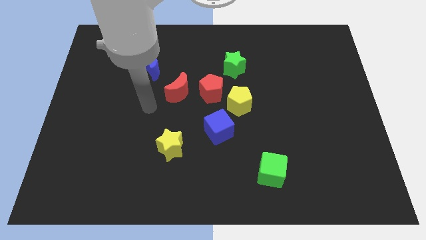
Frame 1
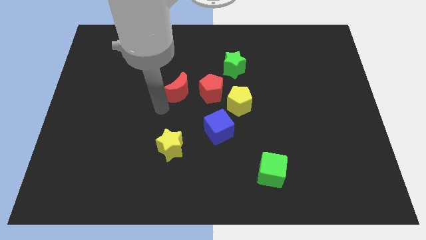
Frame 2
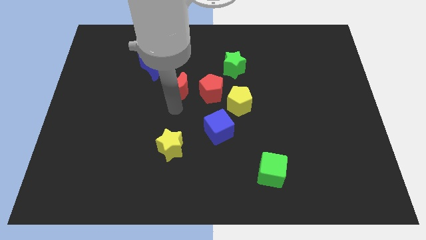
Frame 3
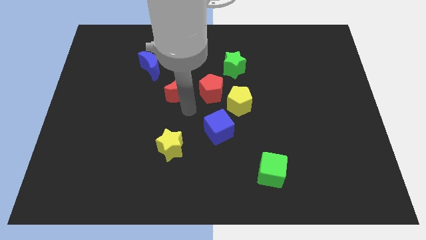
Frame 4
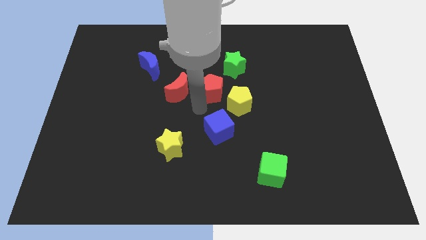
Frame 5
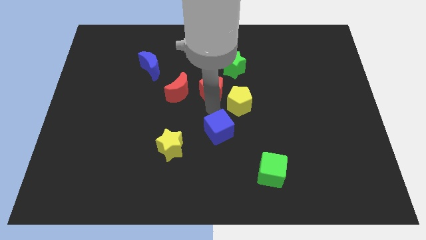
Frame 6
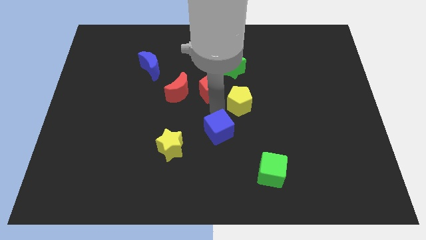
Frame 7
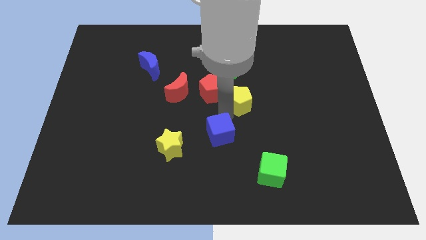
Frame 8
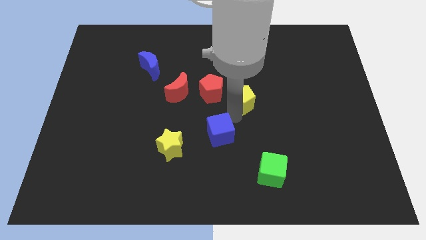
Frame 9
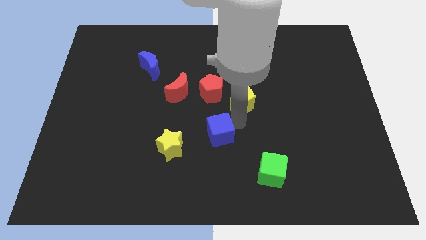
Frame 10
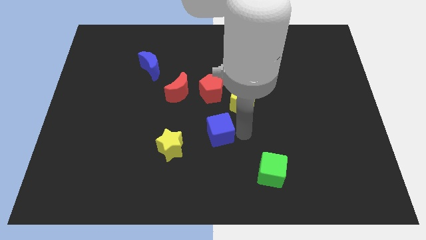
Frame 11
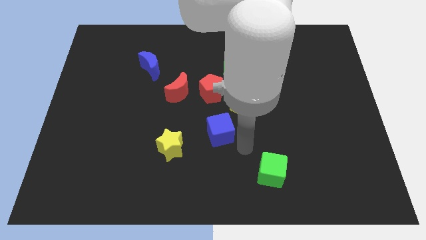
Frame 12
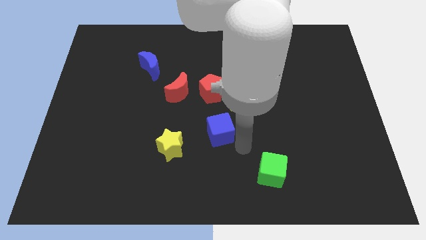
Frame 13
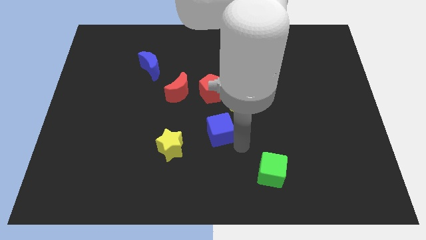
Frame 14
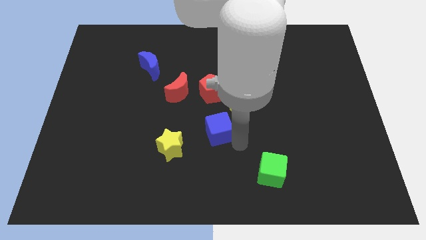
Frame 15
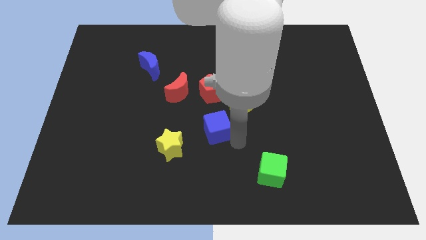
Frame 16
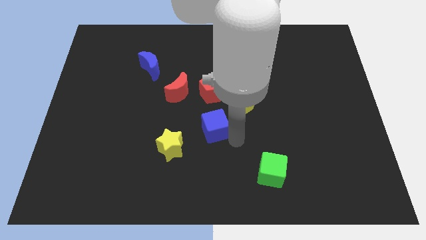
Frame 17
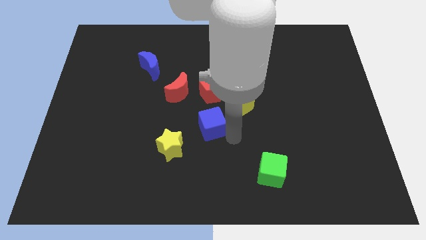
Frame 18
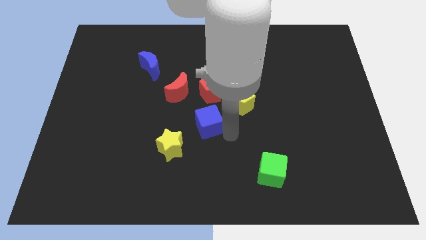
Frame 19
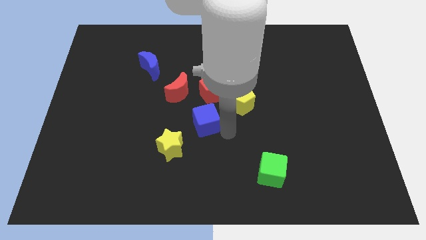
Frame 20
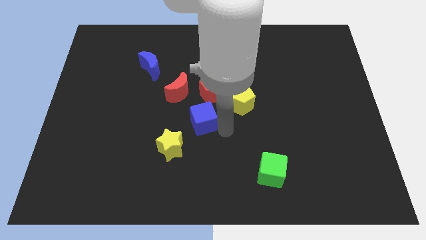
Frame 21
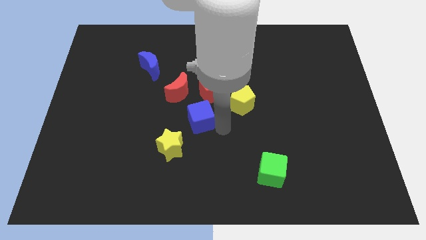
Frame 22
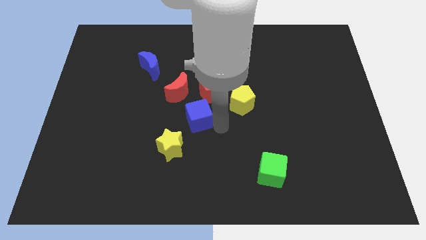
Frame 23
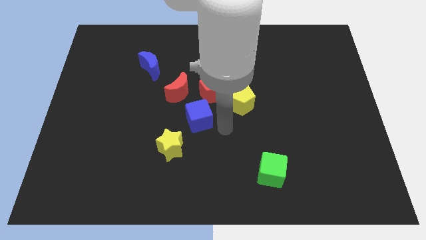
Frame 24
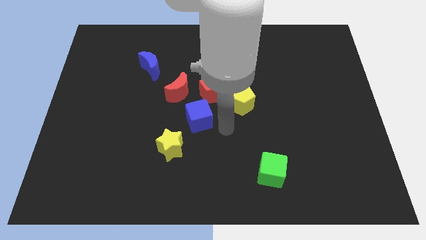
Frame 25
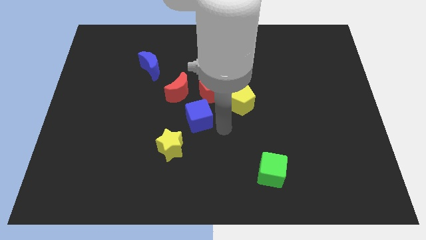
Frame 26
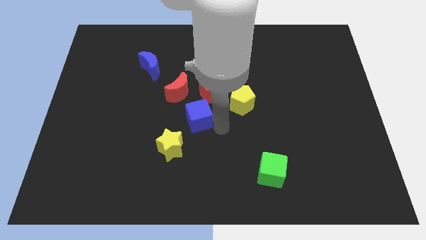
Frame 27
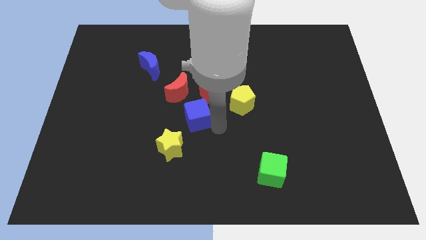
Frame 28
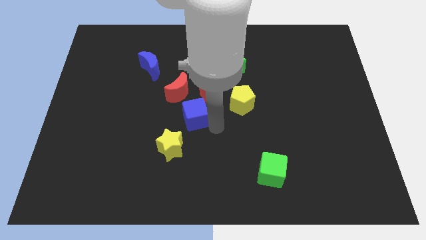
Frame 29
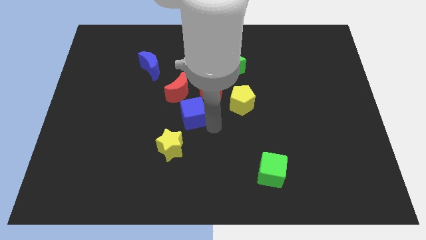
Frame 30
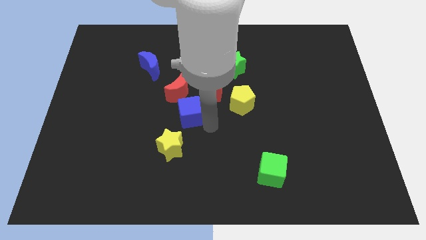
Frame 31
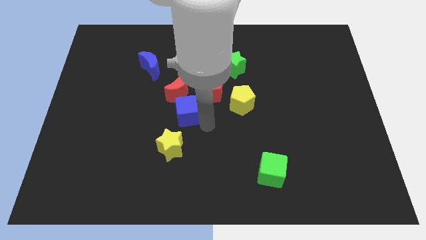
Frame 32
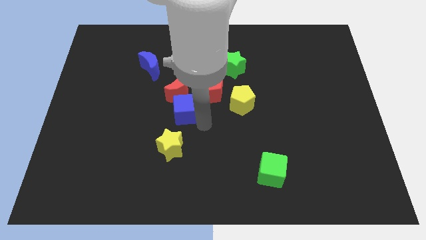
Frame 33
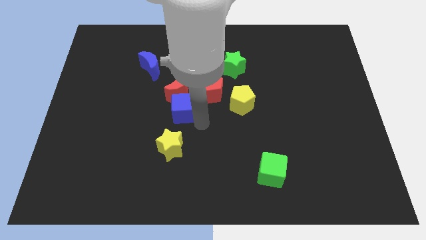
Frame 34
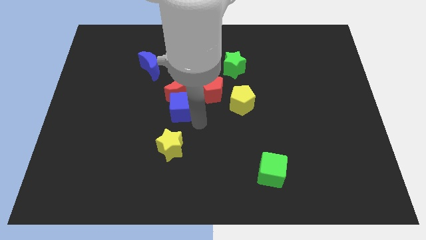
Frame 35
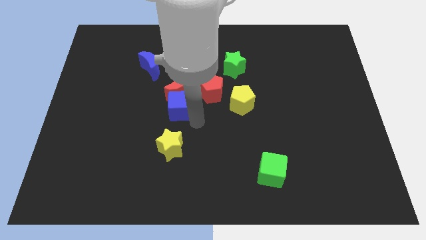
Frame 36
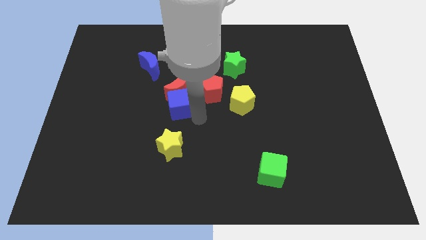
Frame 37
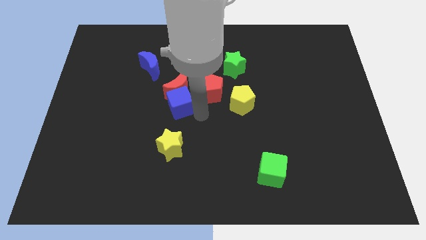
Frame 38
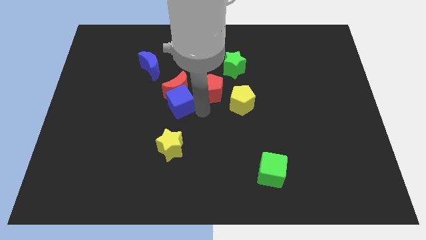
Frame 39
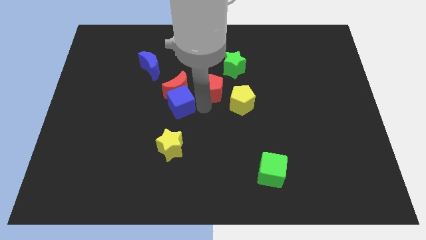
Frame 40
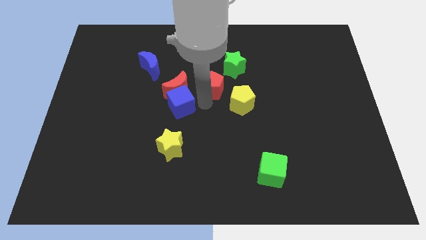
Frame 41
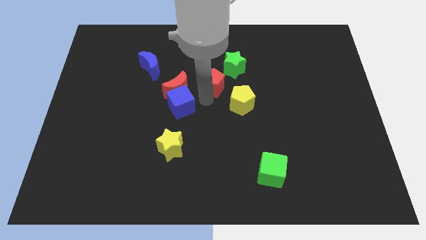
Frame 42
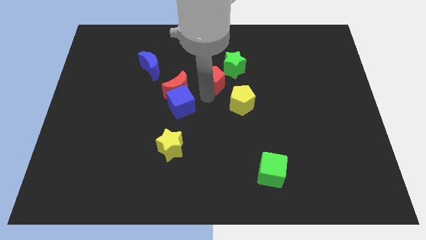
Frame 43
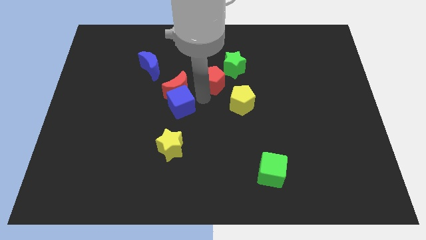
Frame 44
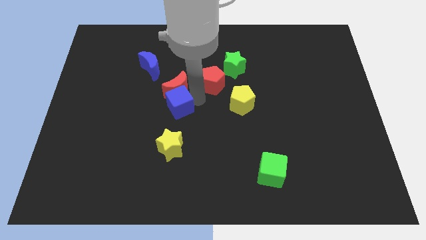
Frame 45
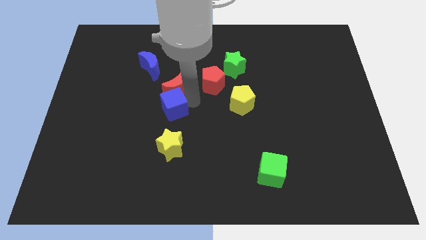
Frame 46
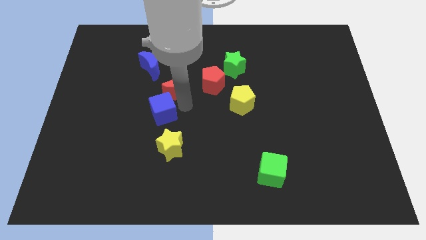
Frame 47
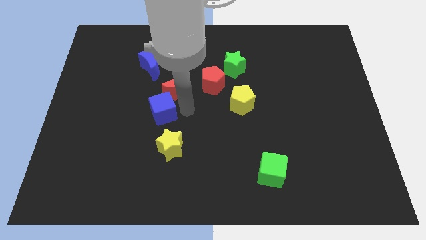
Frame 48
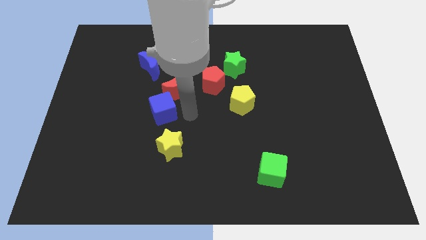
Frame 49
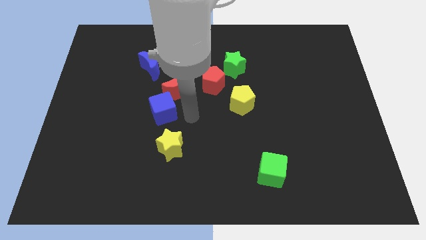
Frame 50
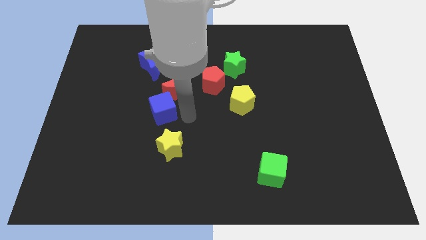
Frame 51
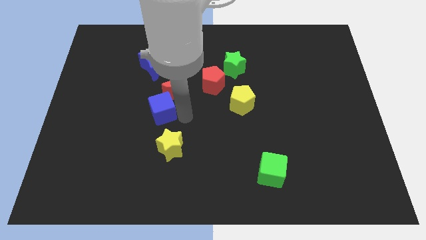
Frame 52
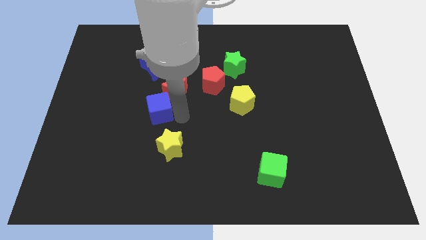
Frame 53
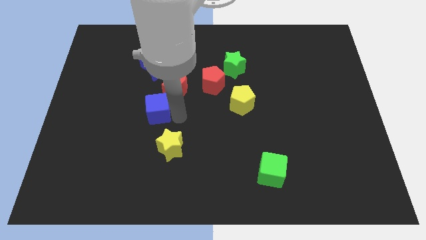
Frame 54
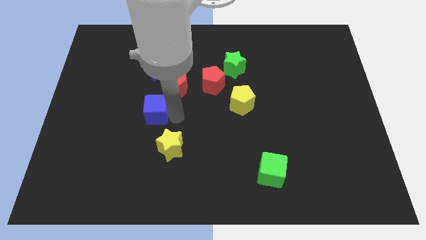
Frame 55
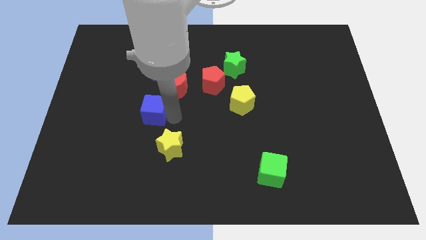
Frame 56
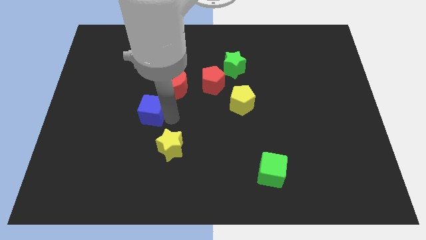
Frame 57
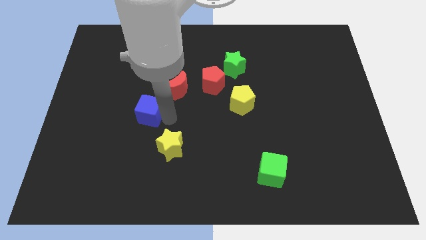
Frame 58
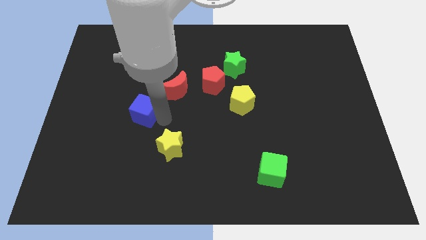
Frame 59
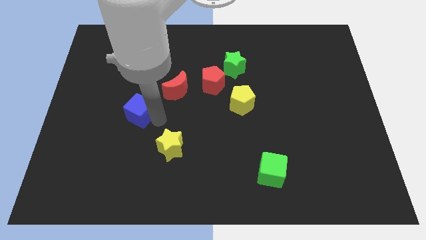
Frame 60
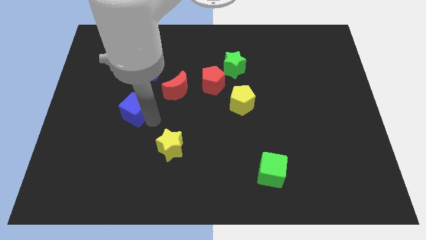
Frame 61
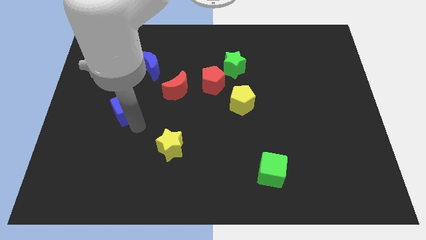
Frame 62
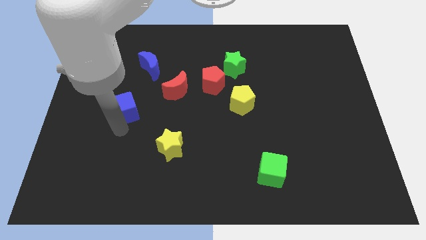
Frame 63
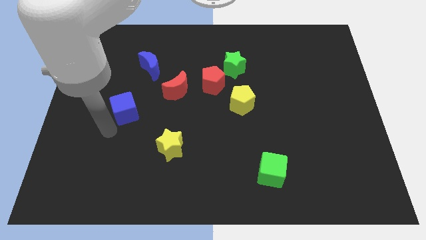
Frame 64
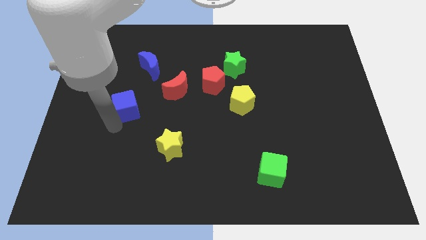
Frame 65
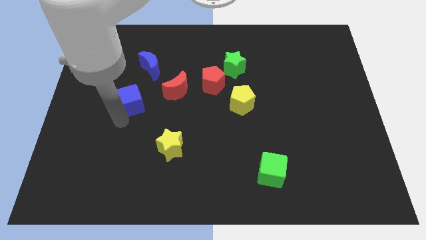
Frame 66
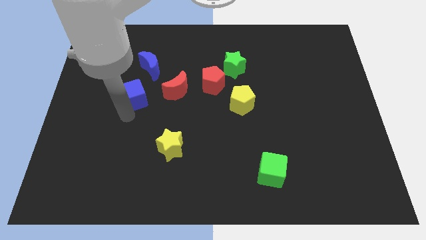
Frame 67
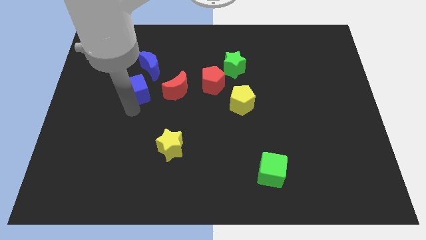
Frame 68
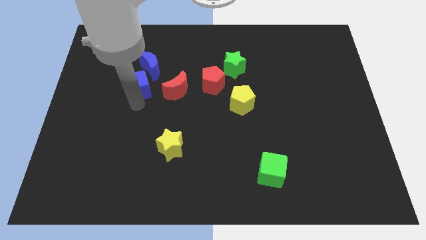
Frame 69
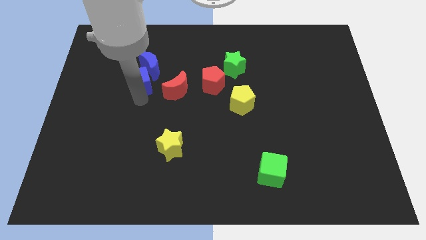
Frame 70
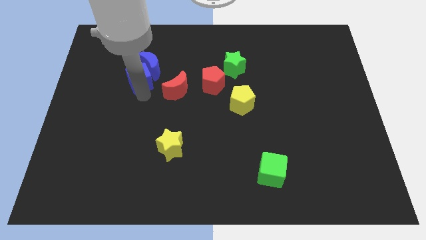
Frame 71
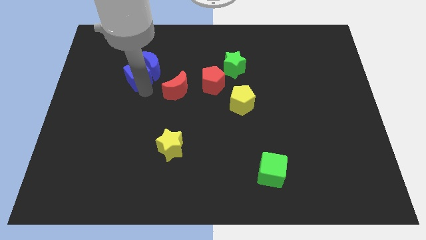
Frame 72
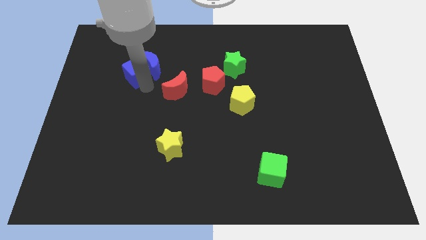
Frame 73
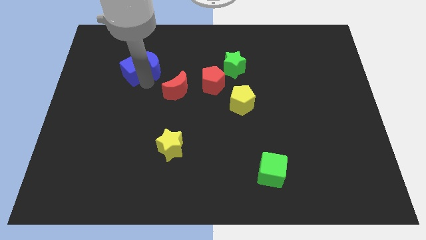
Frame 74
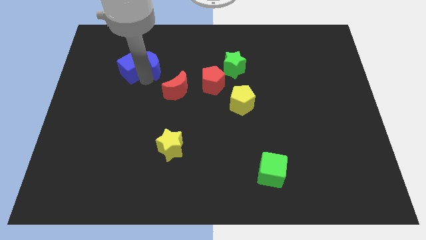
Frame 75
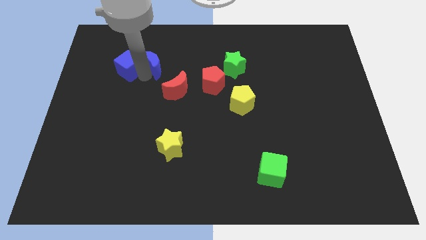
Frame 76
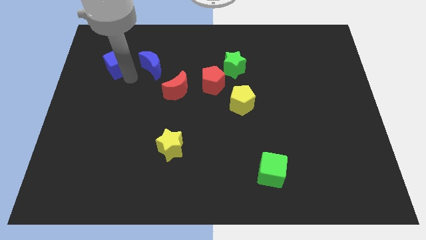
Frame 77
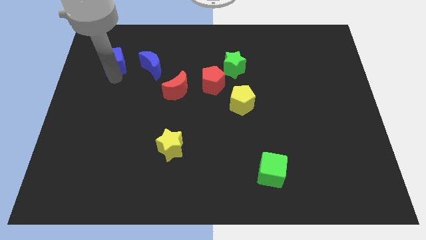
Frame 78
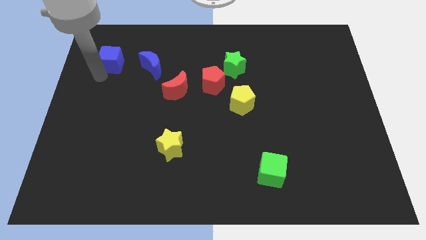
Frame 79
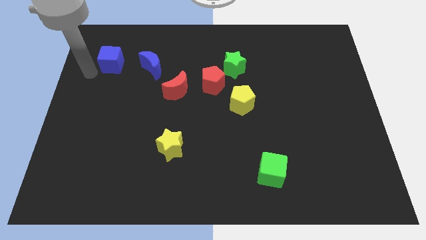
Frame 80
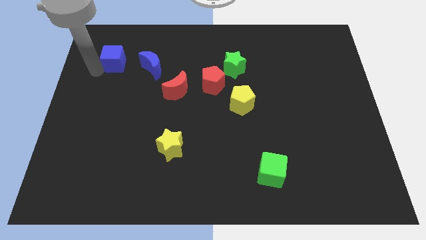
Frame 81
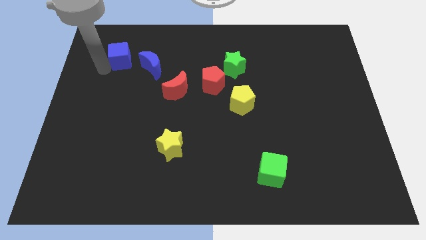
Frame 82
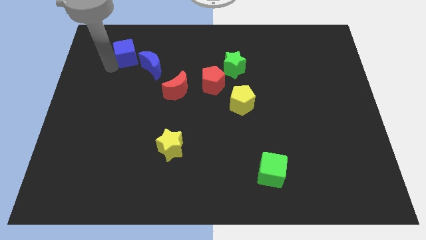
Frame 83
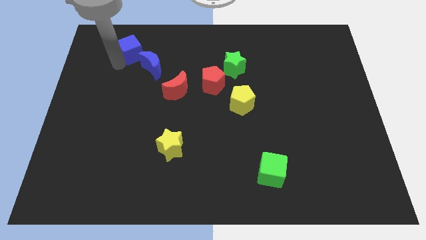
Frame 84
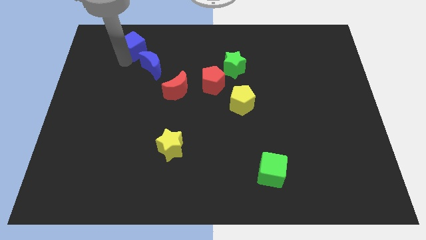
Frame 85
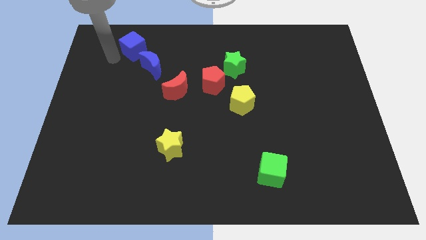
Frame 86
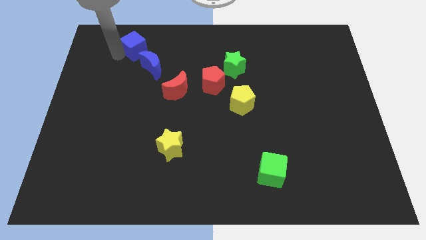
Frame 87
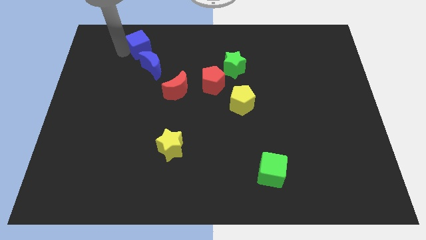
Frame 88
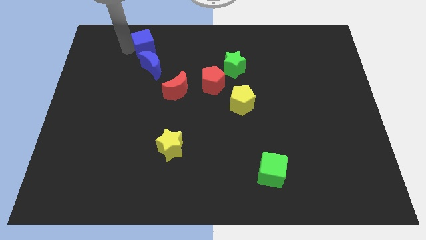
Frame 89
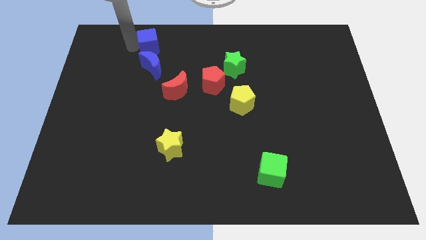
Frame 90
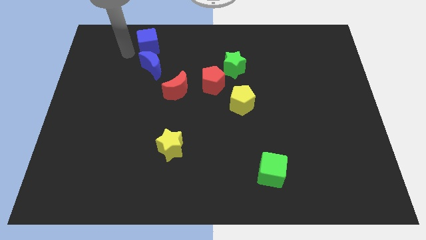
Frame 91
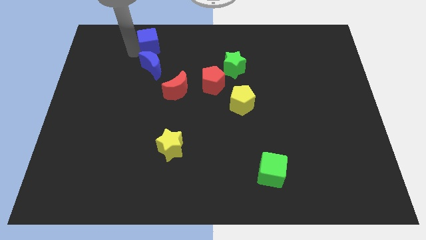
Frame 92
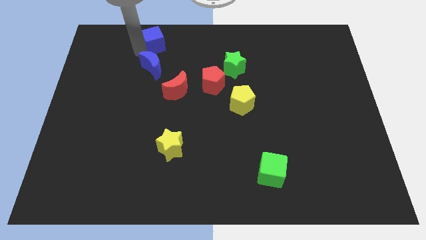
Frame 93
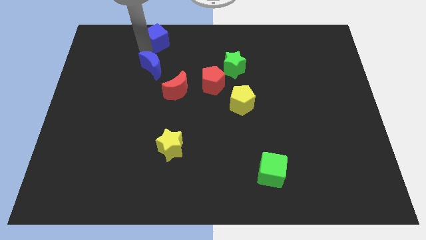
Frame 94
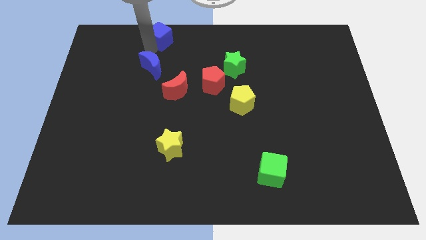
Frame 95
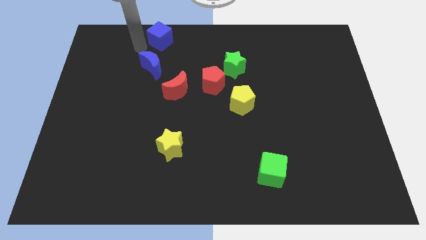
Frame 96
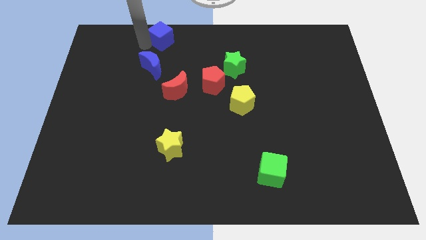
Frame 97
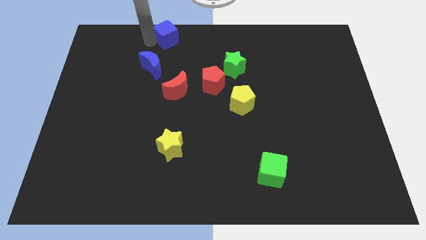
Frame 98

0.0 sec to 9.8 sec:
slide the blue cube to the top side
